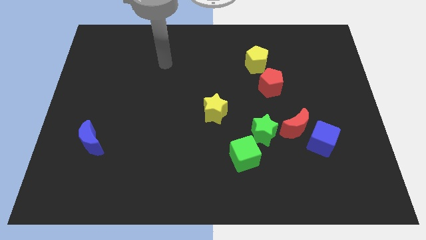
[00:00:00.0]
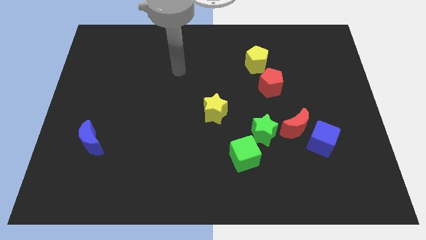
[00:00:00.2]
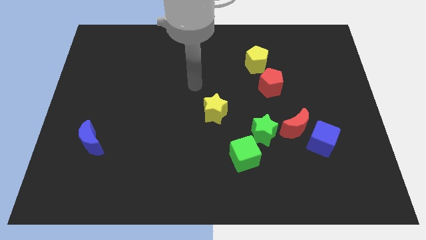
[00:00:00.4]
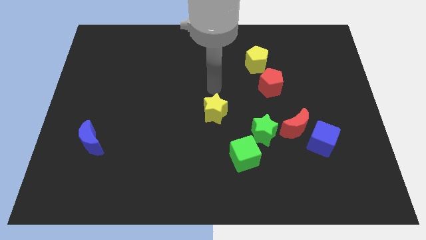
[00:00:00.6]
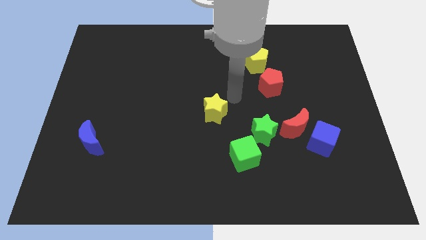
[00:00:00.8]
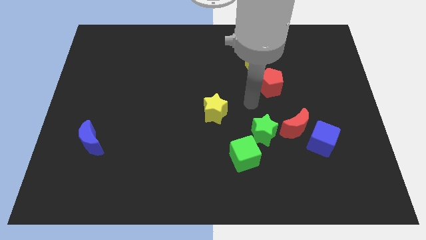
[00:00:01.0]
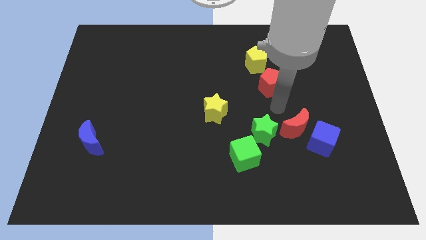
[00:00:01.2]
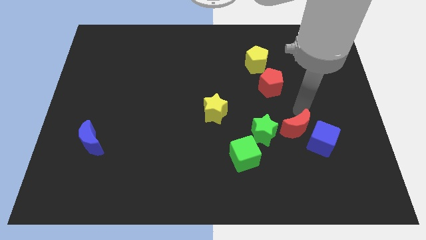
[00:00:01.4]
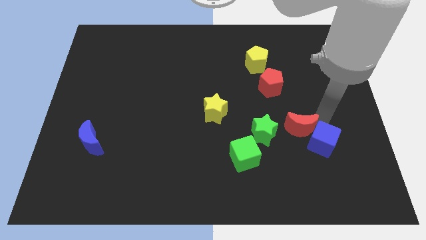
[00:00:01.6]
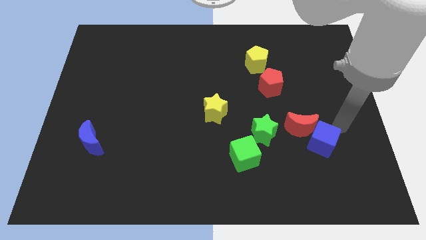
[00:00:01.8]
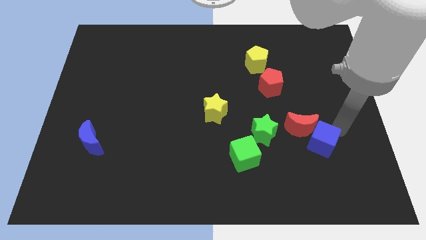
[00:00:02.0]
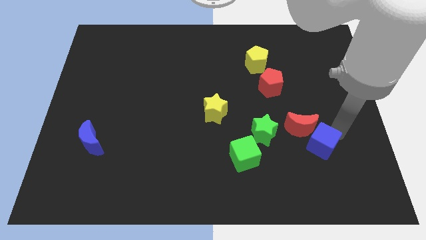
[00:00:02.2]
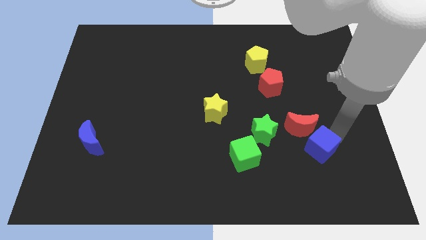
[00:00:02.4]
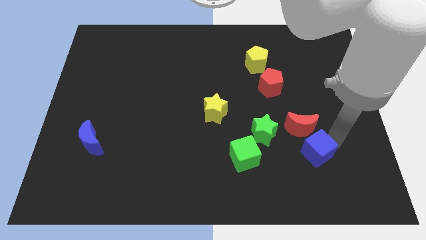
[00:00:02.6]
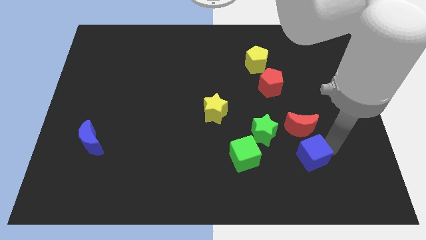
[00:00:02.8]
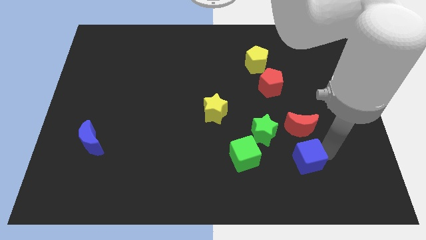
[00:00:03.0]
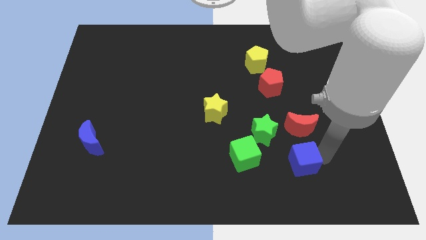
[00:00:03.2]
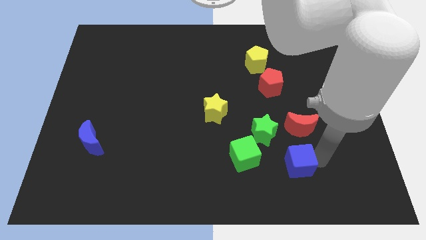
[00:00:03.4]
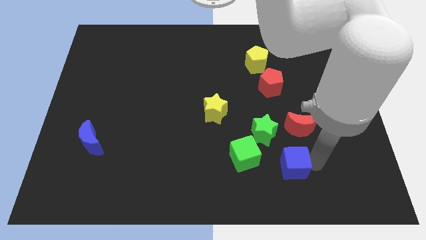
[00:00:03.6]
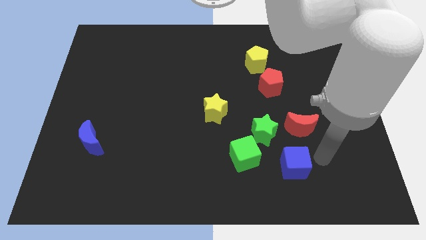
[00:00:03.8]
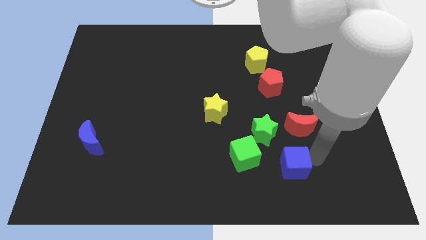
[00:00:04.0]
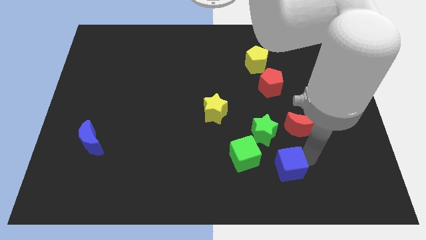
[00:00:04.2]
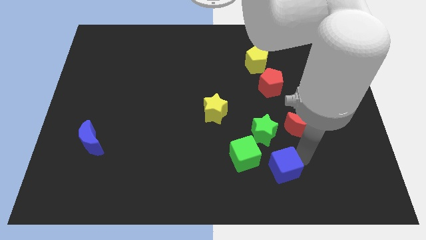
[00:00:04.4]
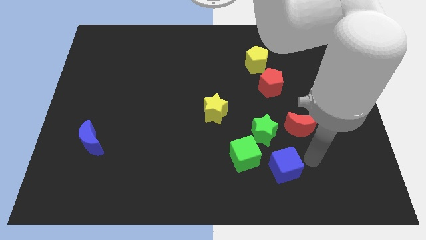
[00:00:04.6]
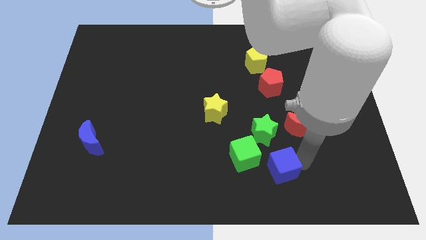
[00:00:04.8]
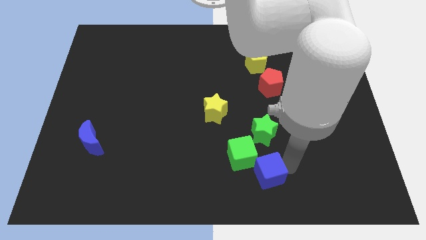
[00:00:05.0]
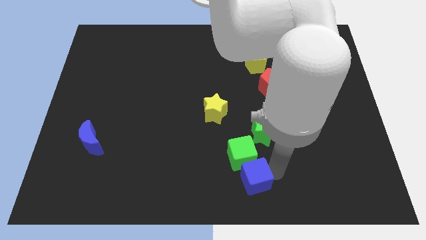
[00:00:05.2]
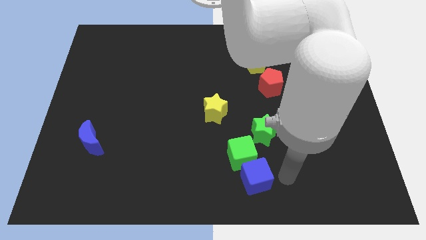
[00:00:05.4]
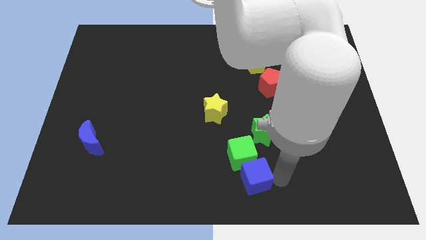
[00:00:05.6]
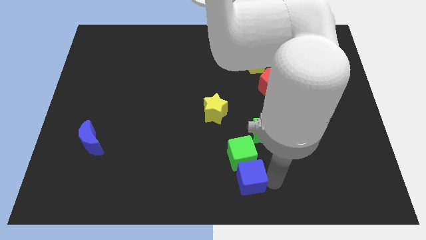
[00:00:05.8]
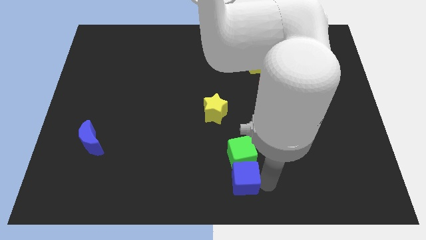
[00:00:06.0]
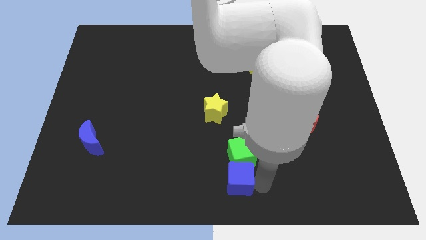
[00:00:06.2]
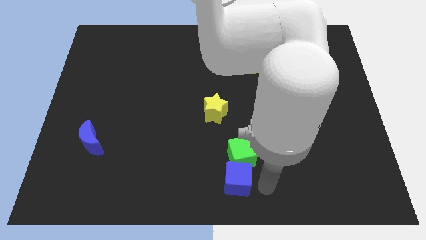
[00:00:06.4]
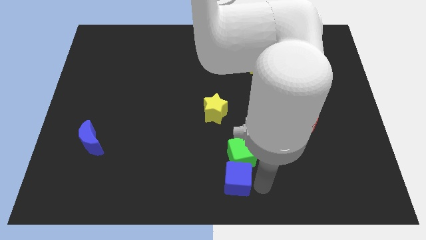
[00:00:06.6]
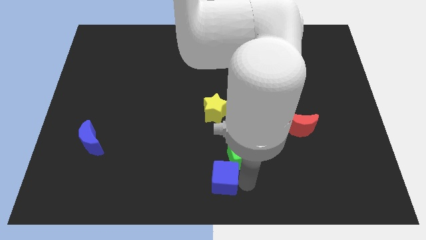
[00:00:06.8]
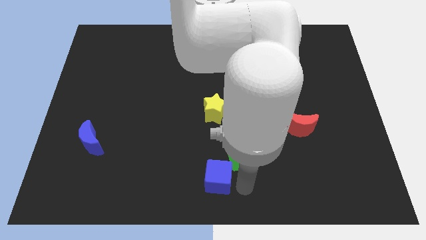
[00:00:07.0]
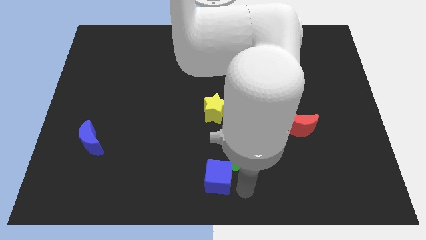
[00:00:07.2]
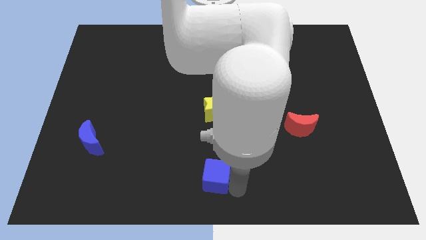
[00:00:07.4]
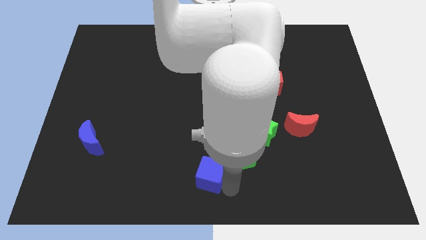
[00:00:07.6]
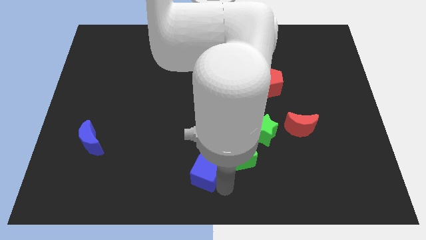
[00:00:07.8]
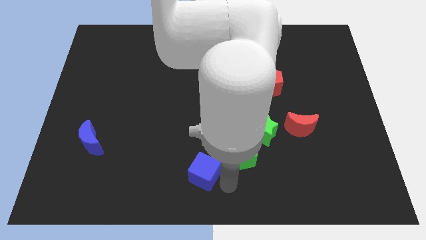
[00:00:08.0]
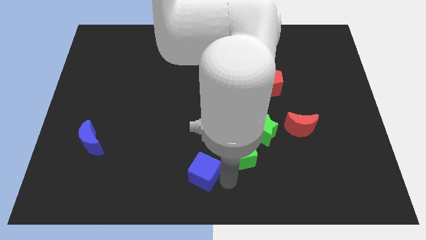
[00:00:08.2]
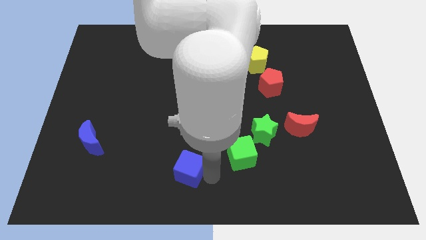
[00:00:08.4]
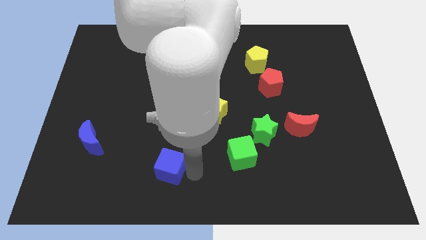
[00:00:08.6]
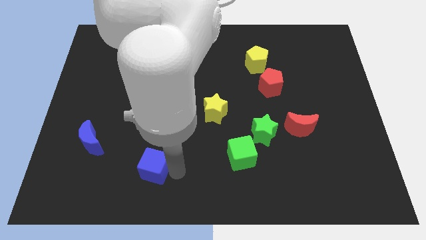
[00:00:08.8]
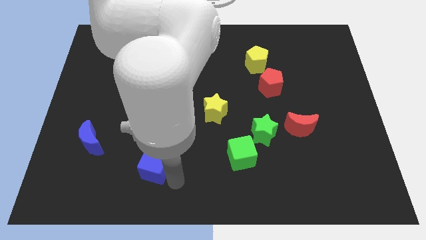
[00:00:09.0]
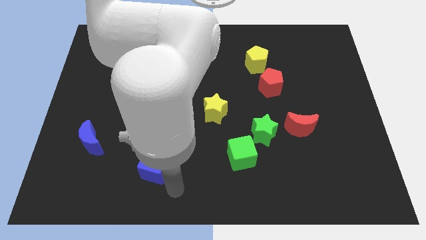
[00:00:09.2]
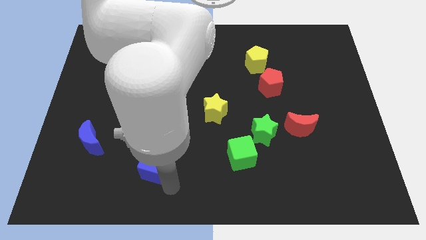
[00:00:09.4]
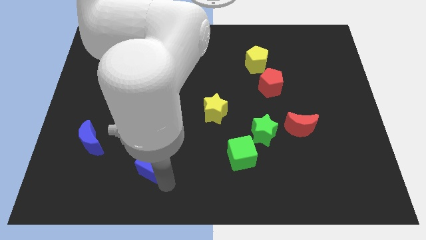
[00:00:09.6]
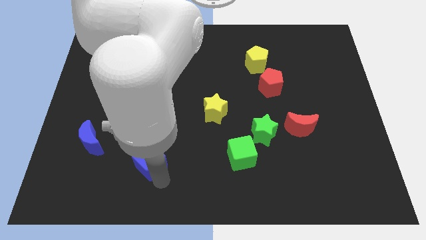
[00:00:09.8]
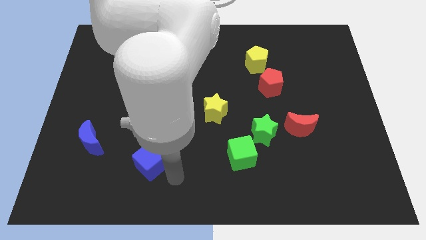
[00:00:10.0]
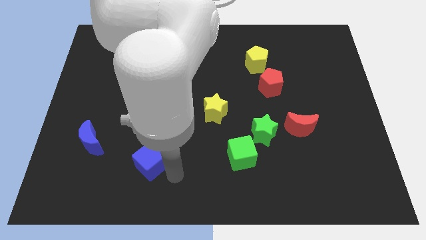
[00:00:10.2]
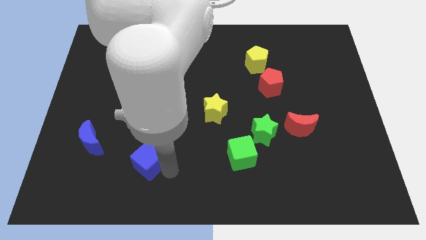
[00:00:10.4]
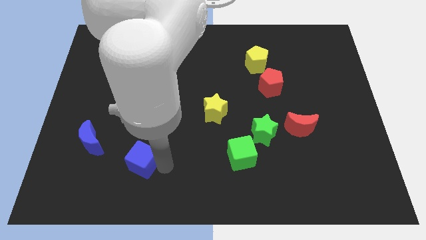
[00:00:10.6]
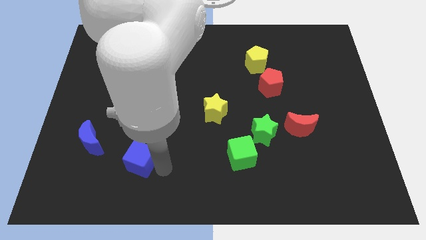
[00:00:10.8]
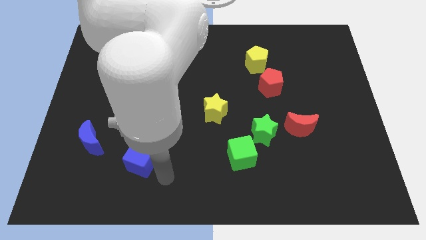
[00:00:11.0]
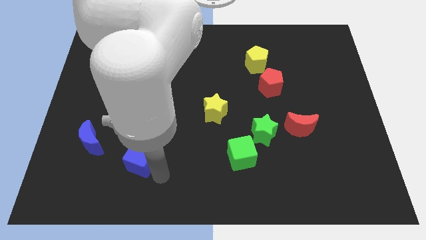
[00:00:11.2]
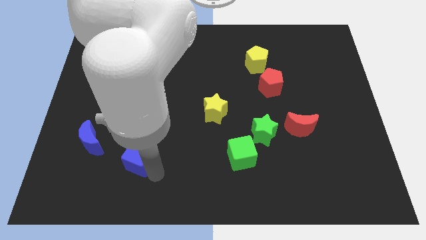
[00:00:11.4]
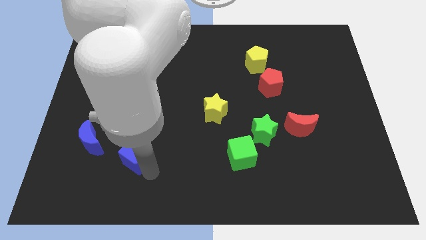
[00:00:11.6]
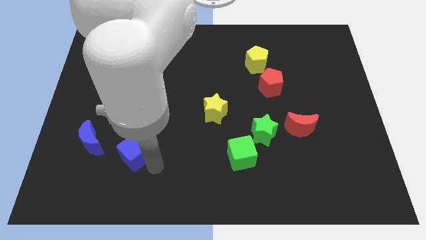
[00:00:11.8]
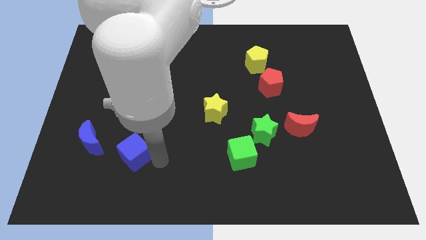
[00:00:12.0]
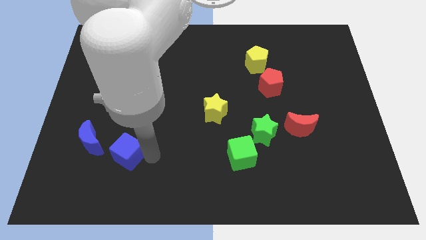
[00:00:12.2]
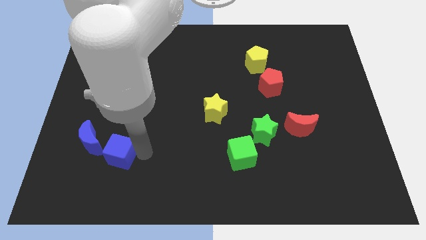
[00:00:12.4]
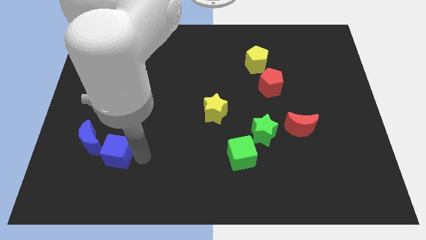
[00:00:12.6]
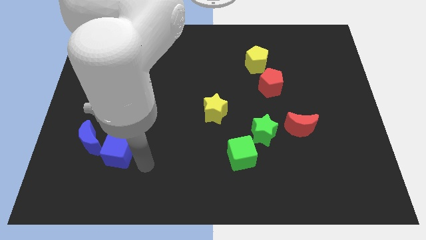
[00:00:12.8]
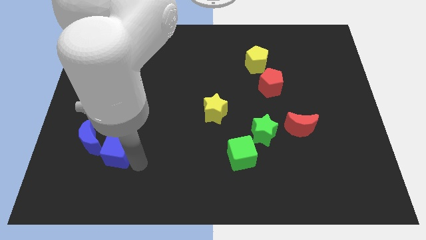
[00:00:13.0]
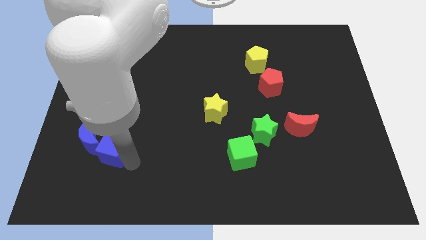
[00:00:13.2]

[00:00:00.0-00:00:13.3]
slide the blue cube close to the blue moon

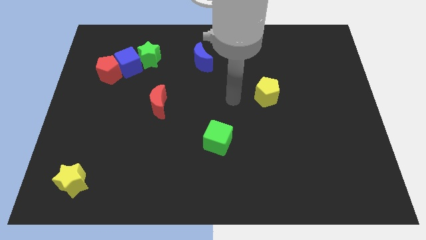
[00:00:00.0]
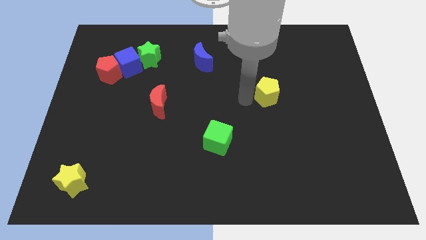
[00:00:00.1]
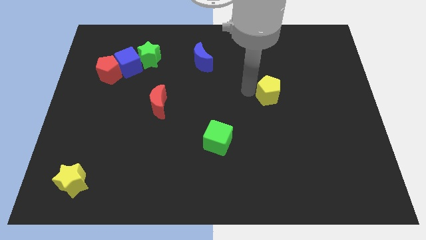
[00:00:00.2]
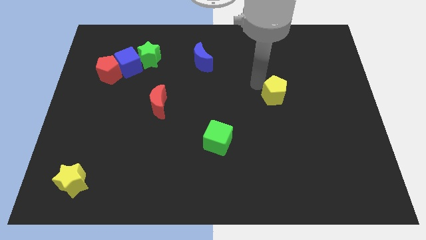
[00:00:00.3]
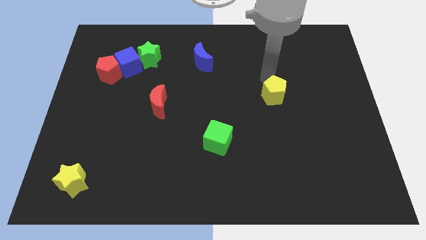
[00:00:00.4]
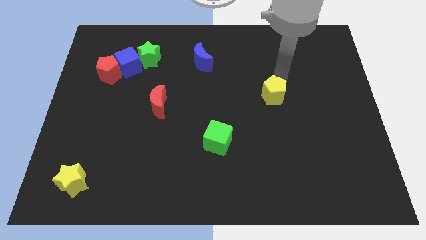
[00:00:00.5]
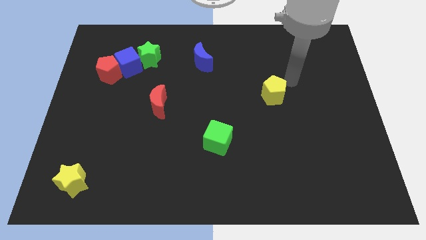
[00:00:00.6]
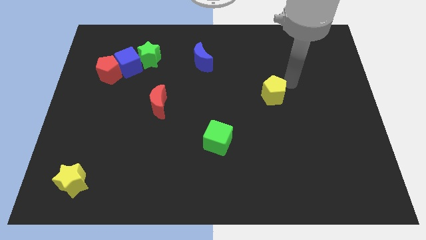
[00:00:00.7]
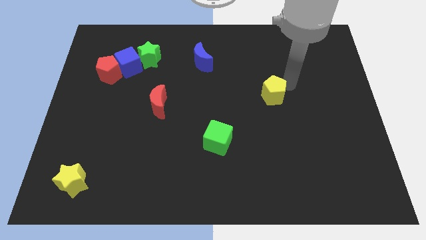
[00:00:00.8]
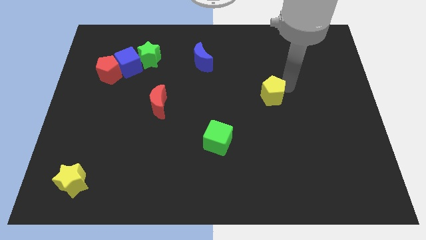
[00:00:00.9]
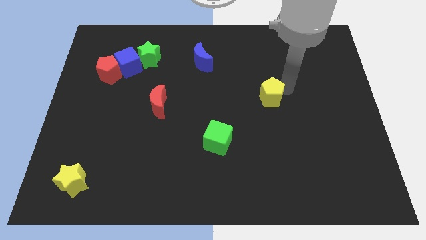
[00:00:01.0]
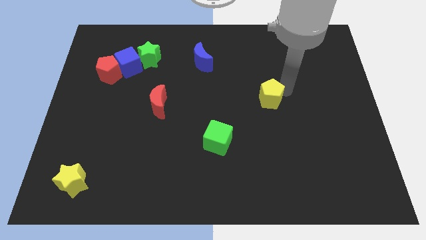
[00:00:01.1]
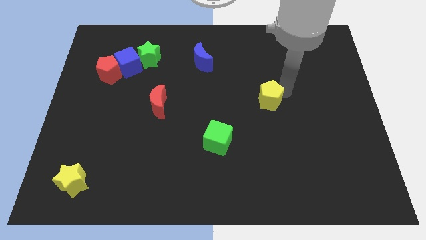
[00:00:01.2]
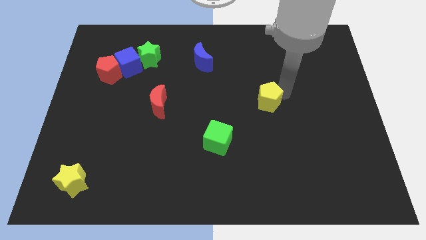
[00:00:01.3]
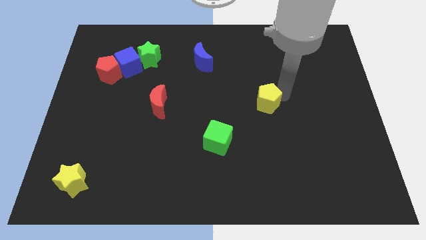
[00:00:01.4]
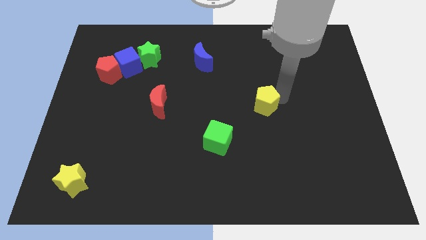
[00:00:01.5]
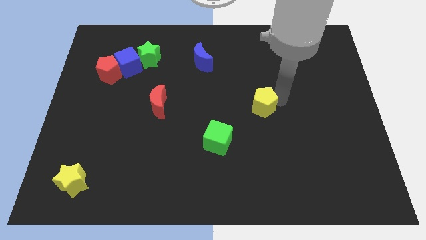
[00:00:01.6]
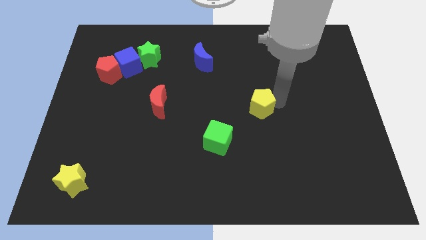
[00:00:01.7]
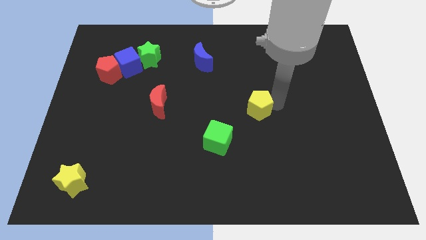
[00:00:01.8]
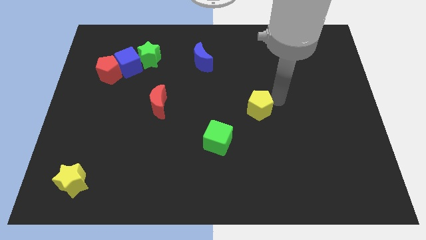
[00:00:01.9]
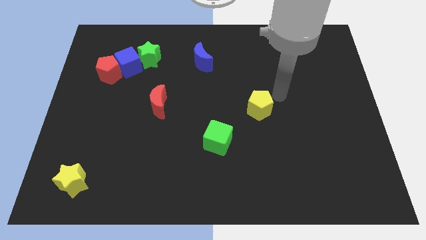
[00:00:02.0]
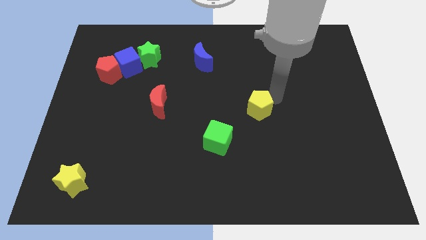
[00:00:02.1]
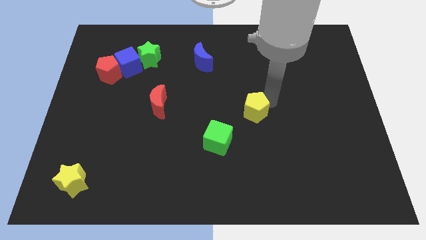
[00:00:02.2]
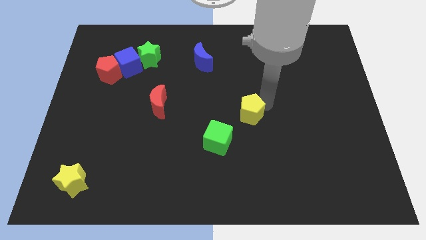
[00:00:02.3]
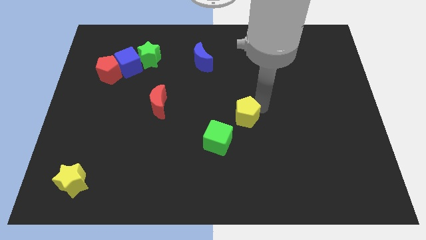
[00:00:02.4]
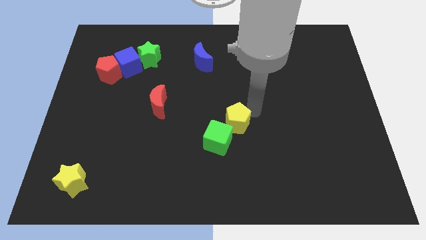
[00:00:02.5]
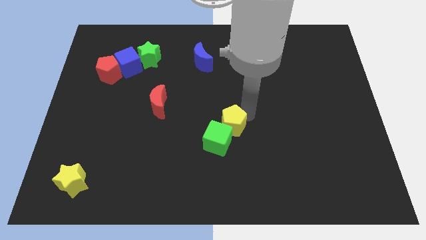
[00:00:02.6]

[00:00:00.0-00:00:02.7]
put the yellow pentagon to the green cube
